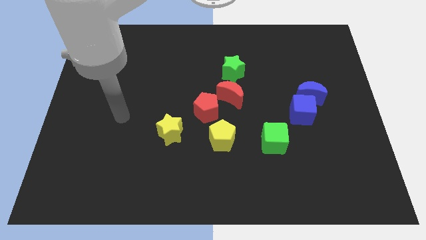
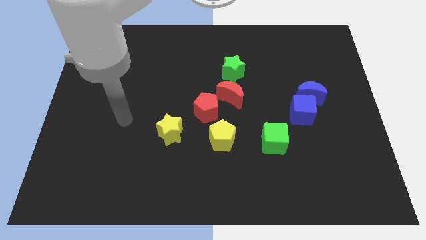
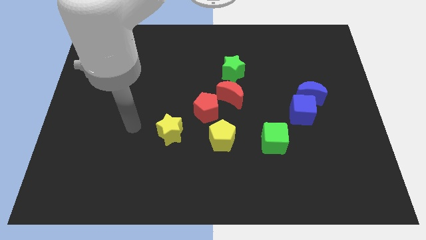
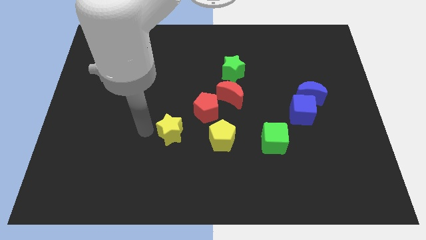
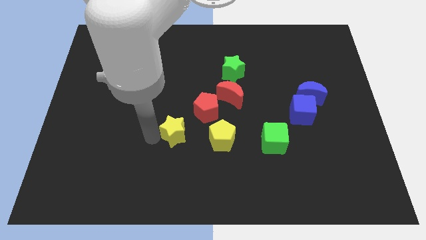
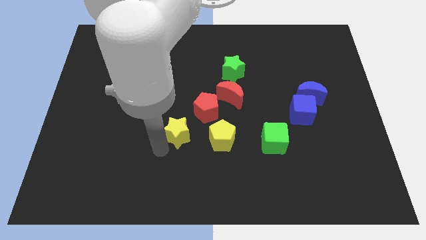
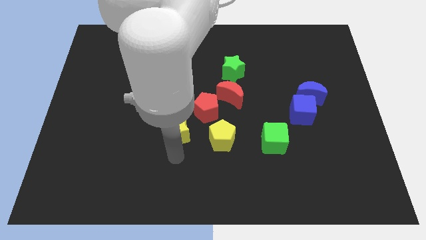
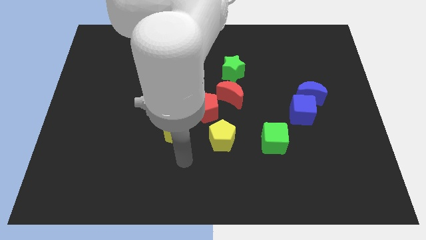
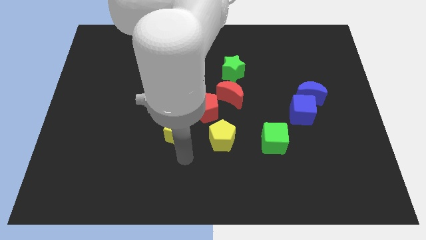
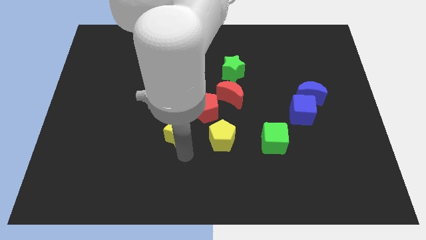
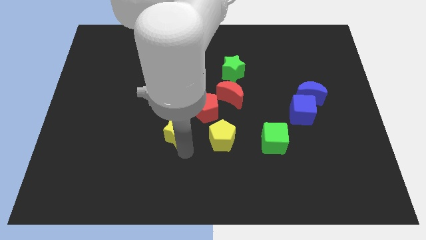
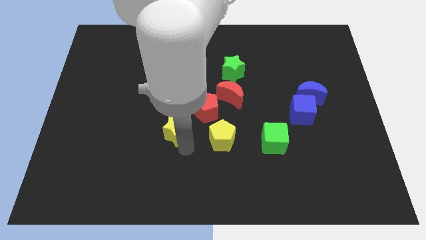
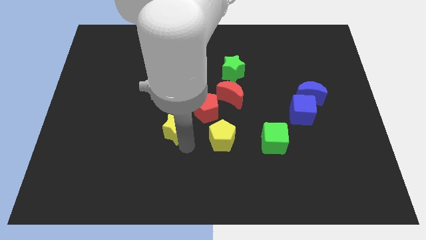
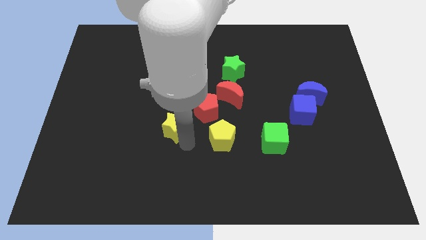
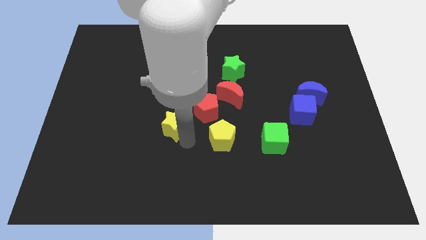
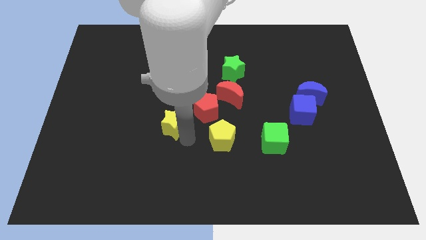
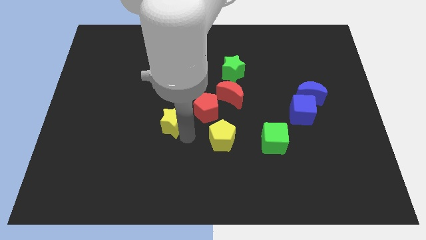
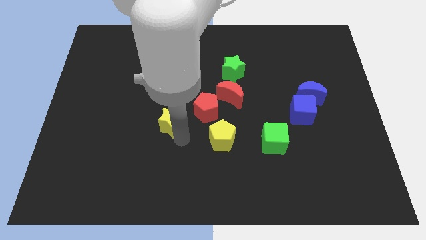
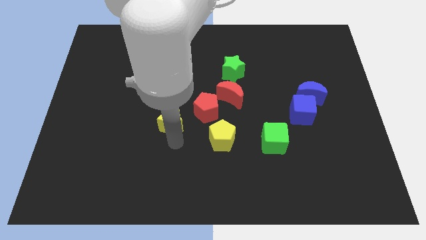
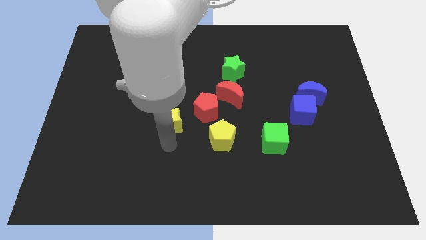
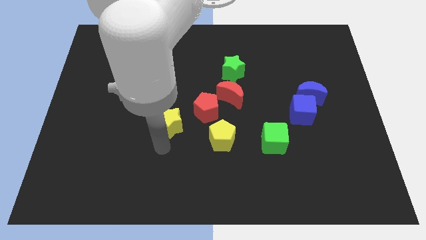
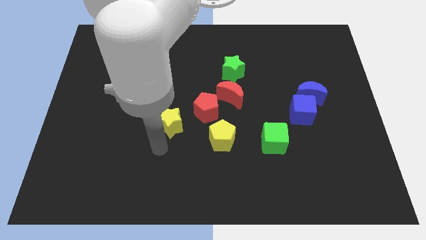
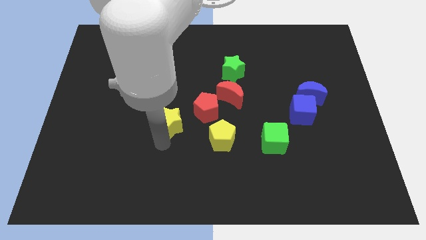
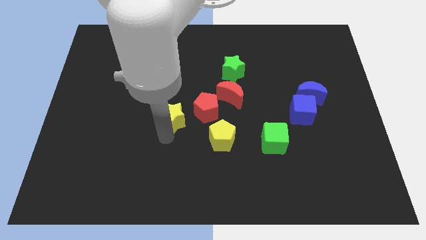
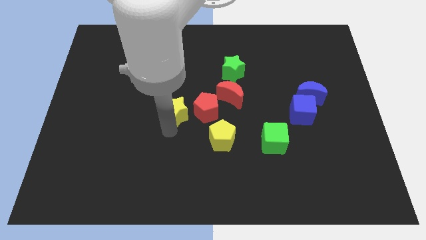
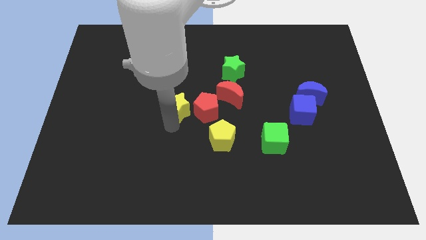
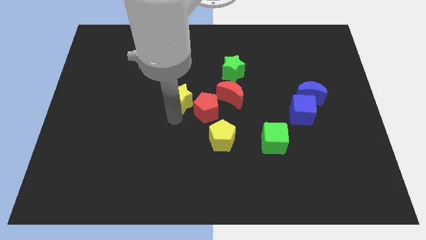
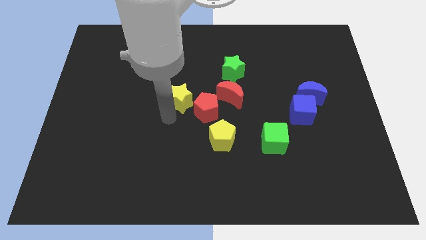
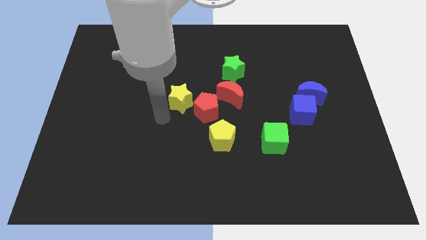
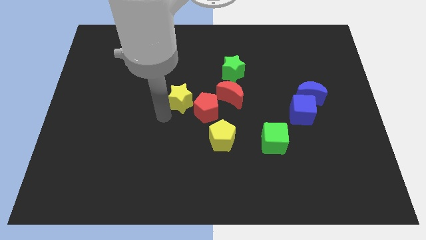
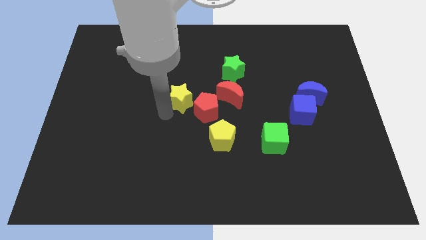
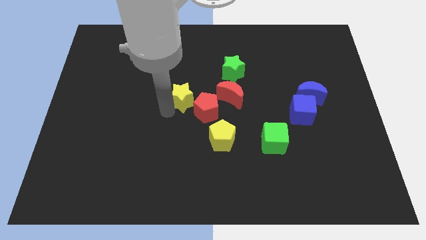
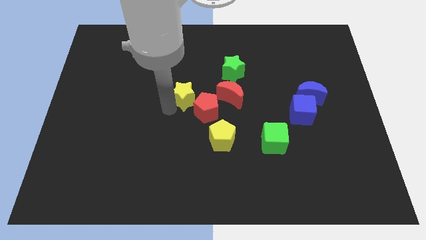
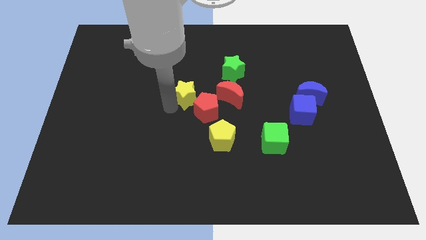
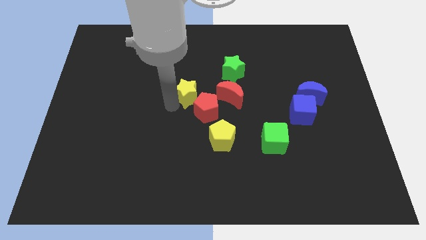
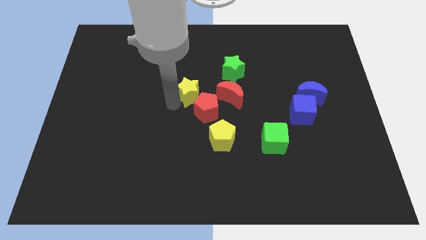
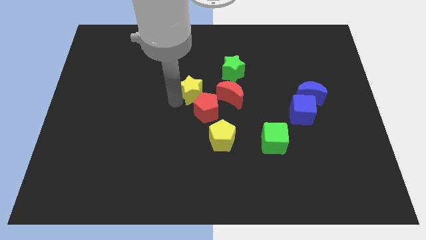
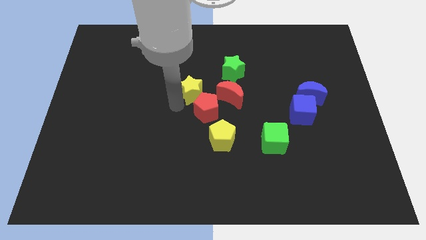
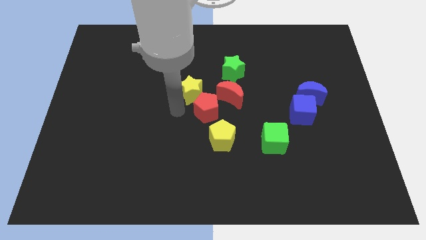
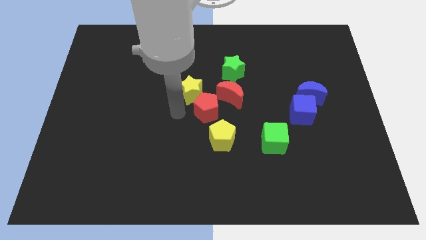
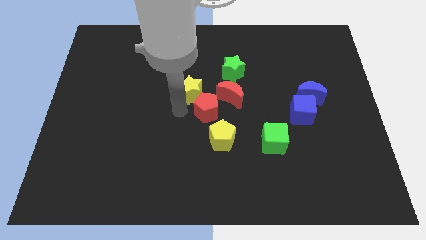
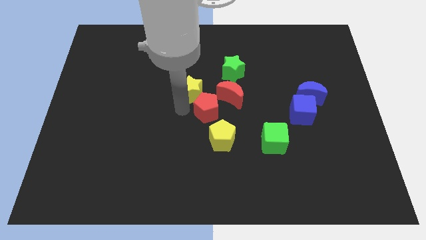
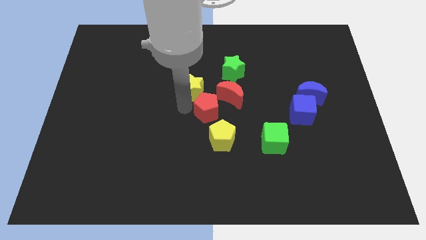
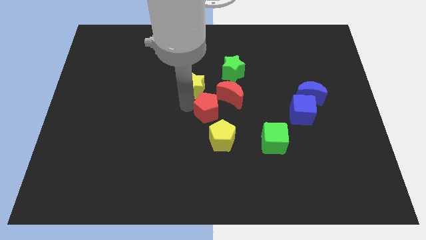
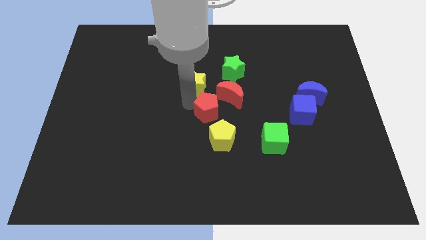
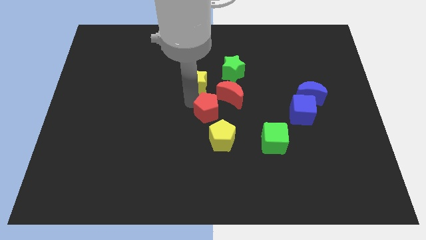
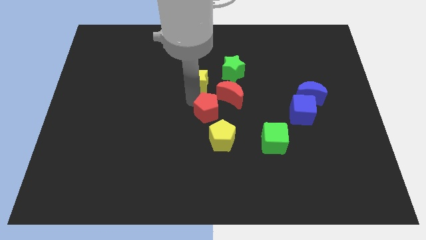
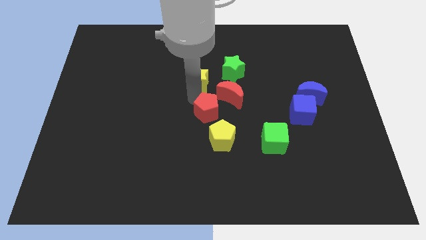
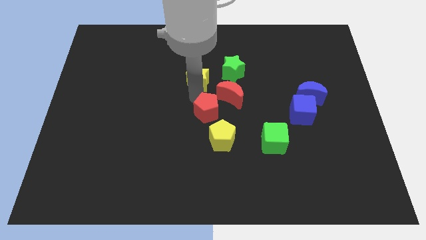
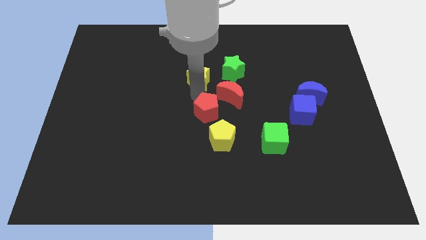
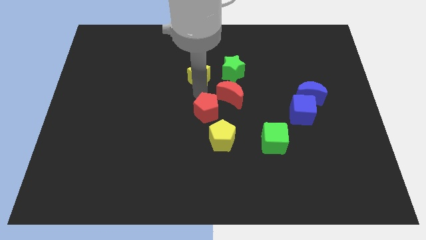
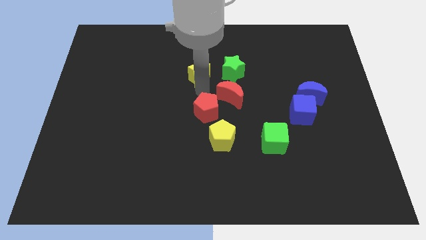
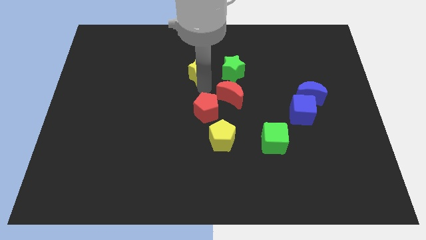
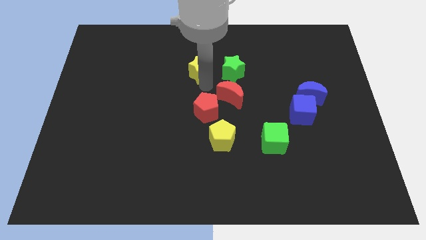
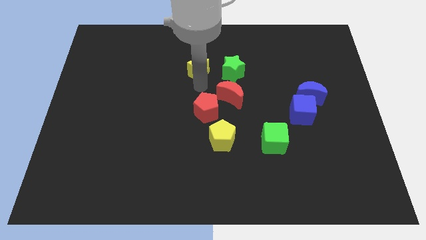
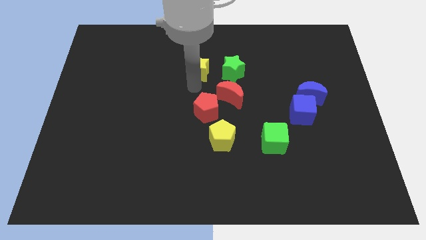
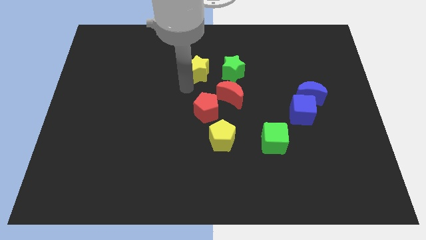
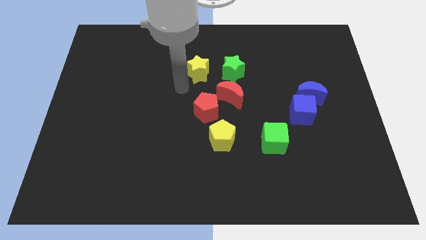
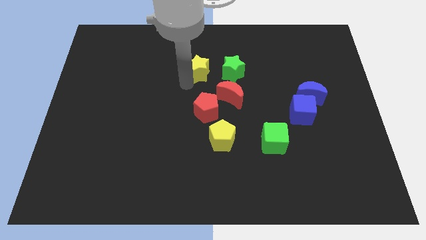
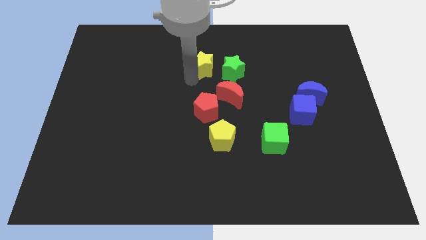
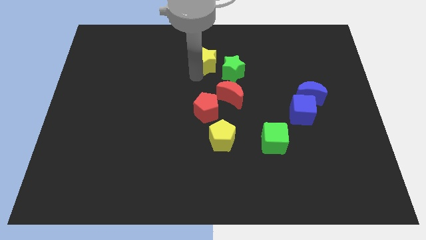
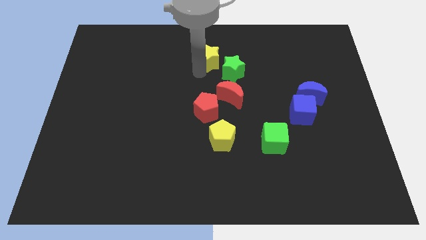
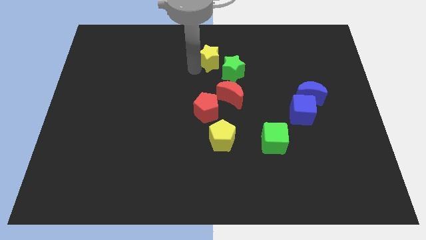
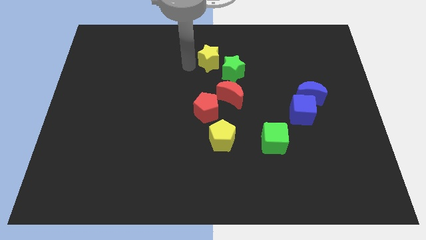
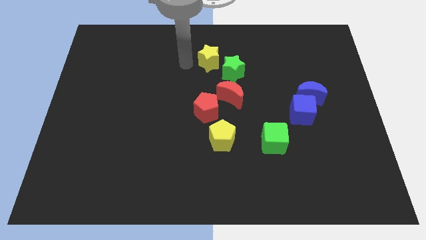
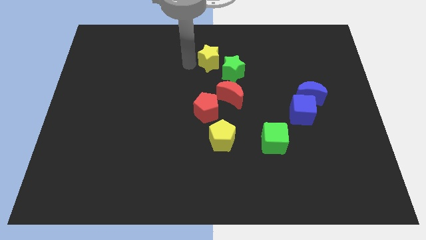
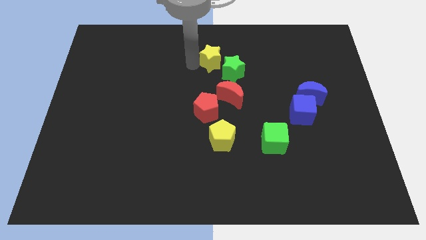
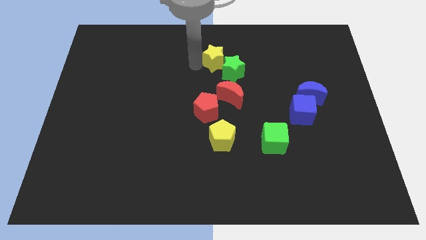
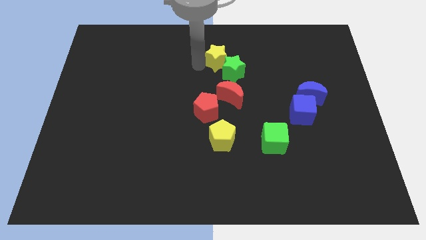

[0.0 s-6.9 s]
push the yellow star upwards and then to the right

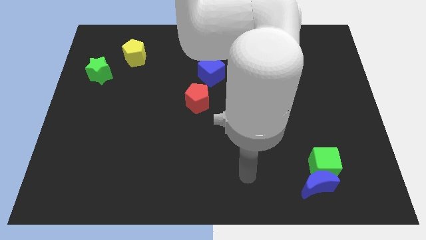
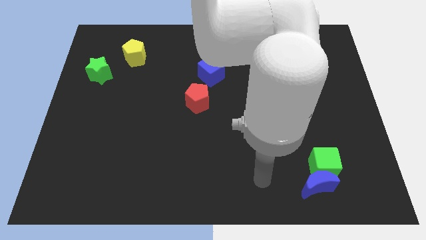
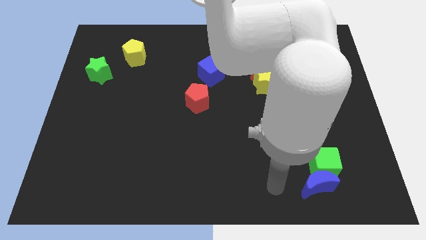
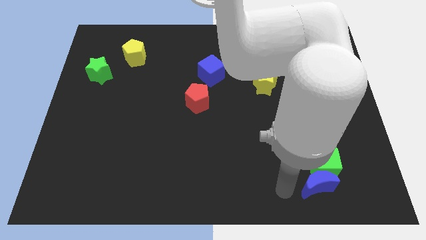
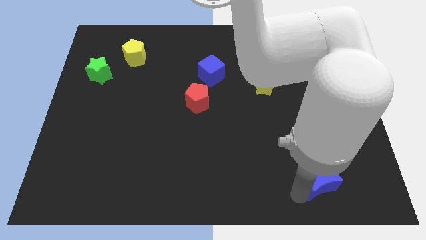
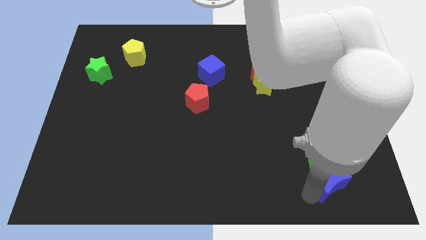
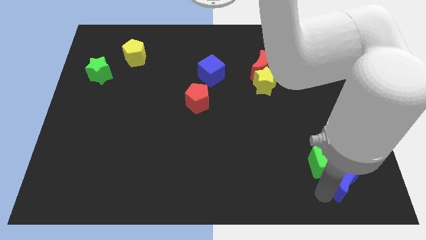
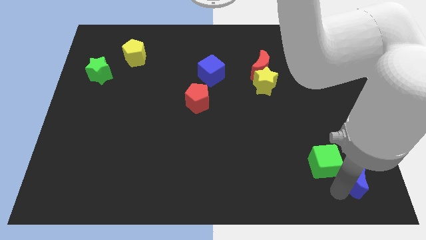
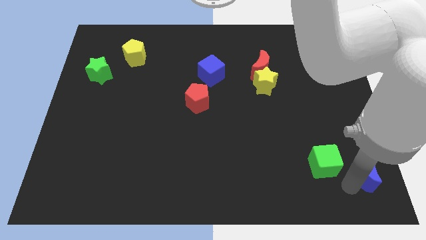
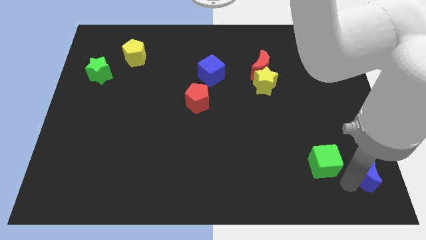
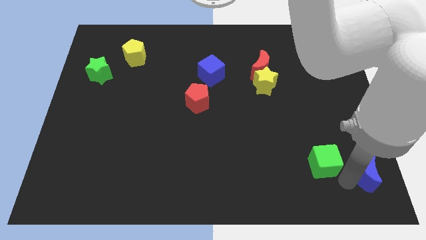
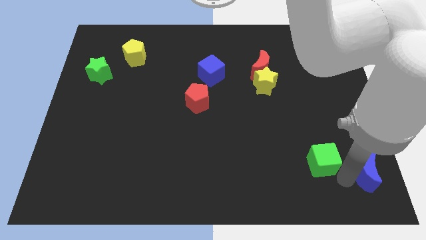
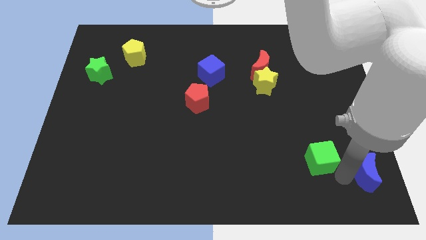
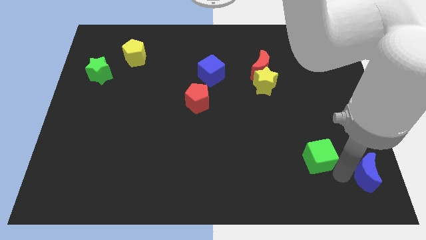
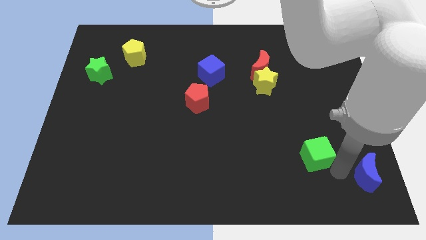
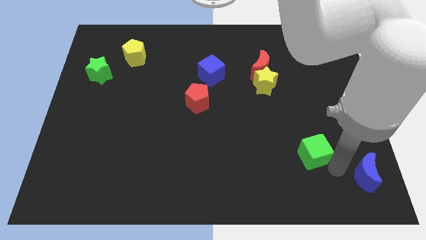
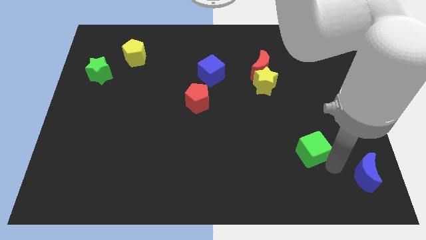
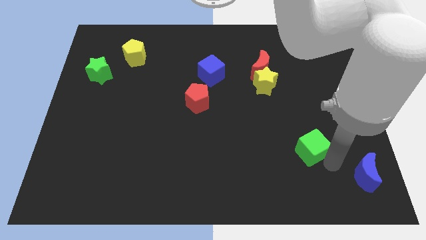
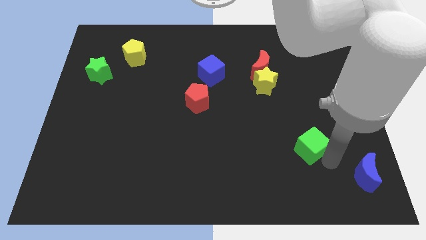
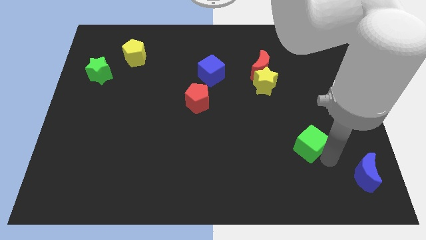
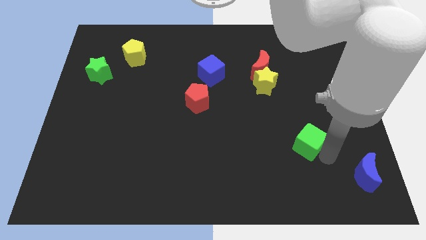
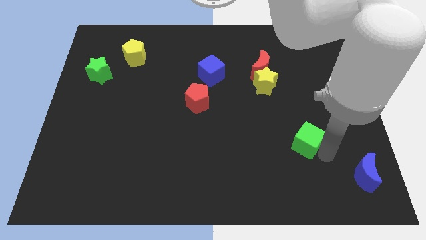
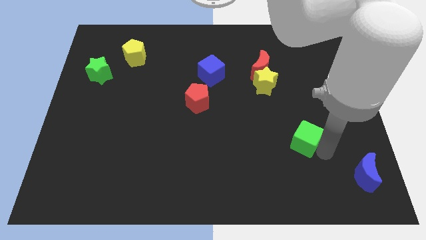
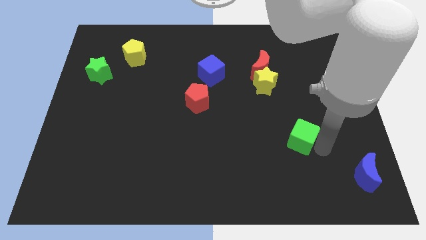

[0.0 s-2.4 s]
move the green cube a bit diagonally up and left
